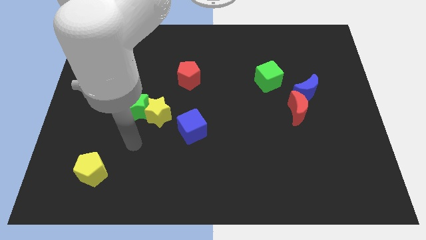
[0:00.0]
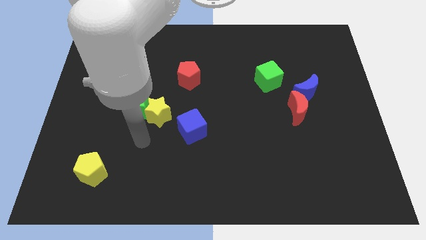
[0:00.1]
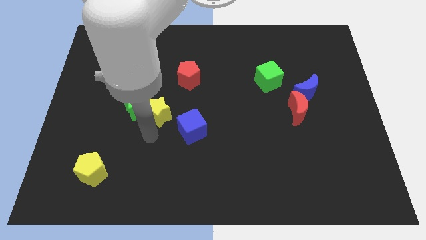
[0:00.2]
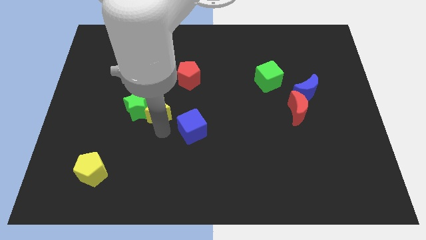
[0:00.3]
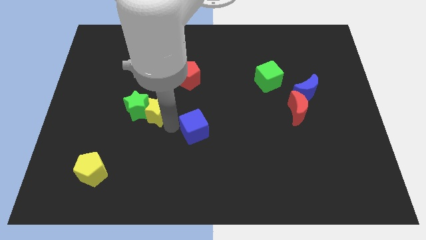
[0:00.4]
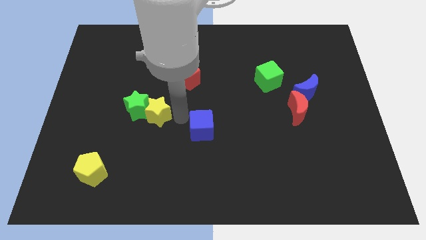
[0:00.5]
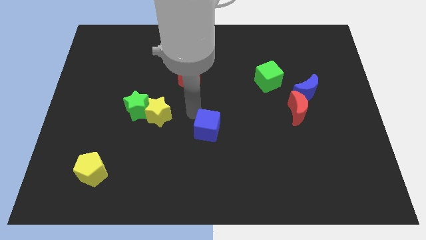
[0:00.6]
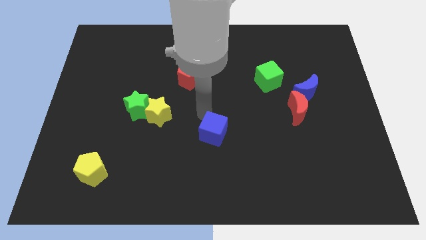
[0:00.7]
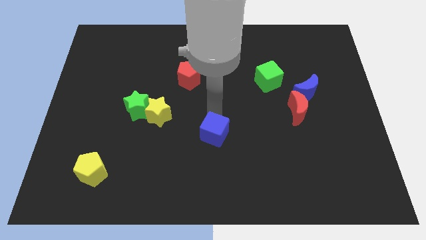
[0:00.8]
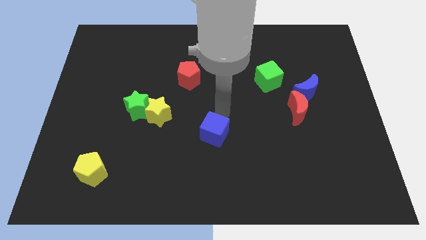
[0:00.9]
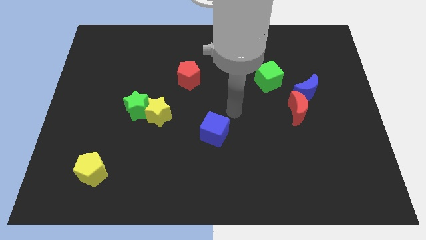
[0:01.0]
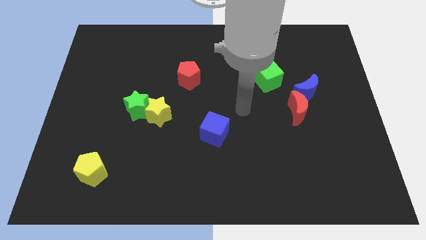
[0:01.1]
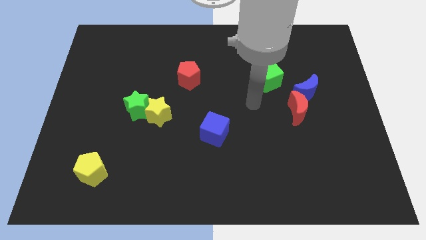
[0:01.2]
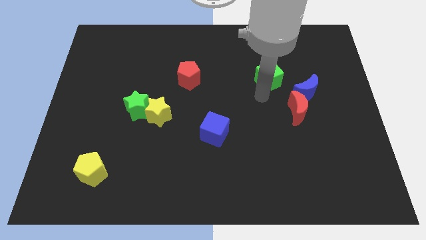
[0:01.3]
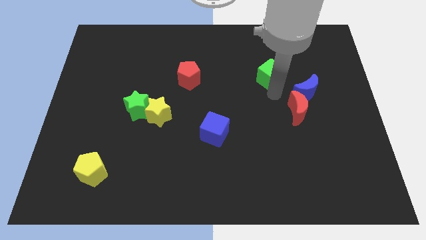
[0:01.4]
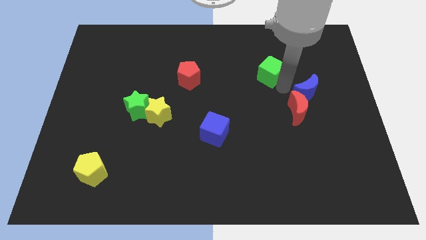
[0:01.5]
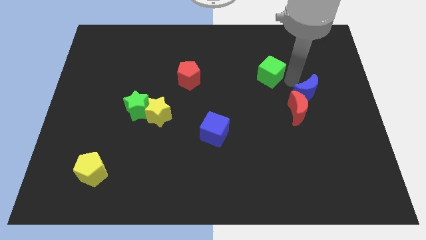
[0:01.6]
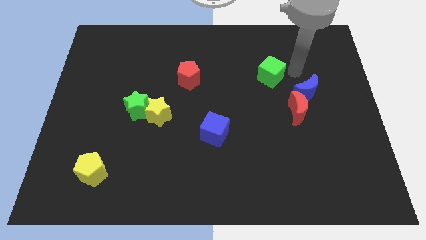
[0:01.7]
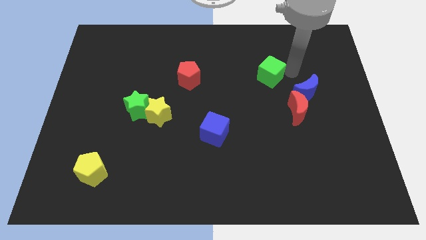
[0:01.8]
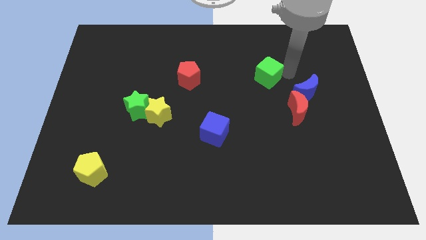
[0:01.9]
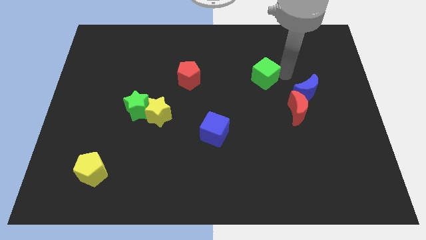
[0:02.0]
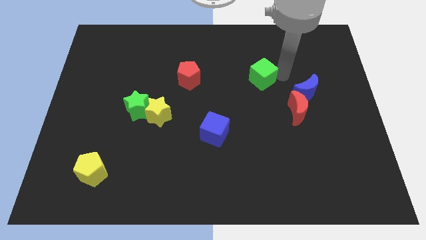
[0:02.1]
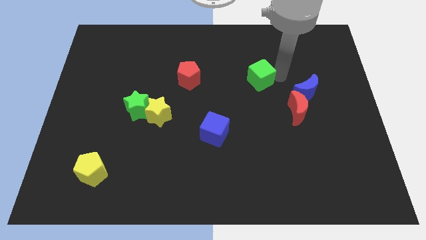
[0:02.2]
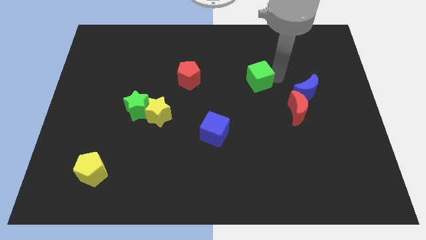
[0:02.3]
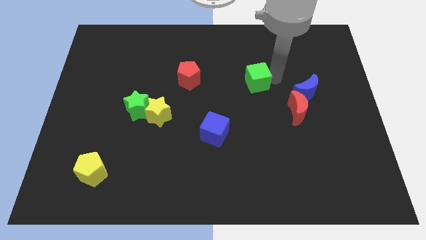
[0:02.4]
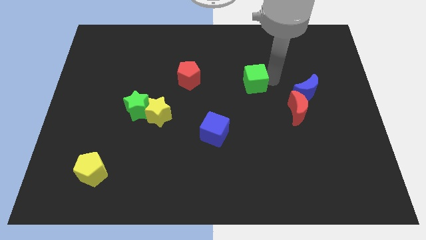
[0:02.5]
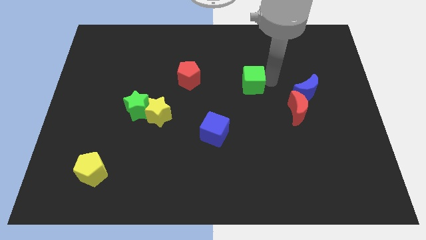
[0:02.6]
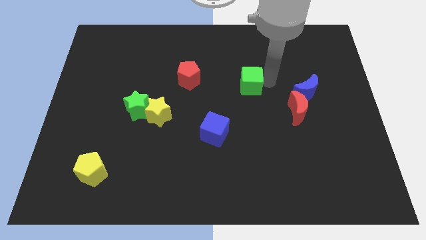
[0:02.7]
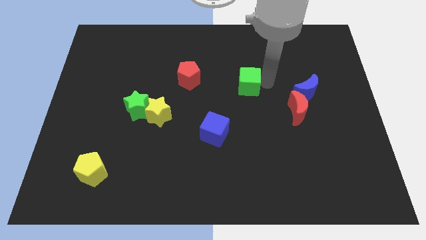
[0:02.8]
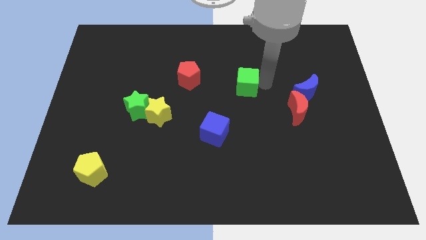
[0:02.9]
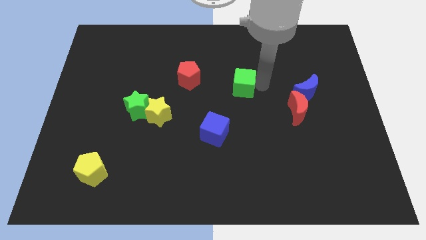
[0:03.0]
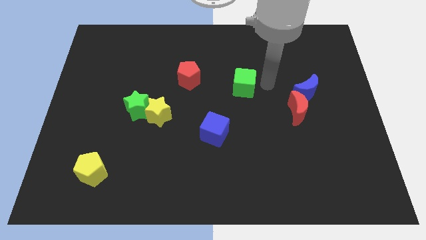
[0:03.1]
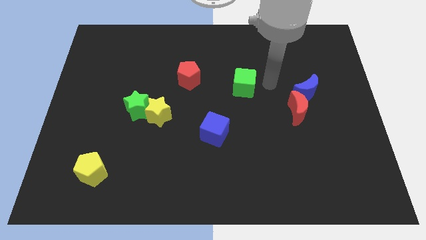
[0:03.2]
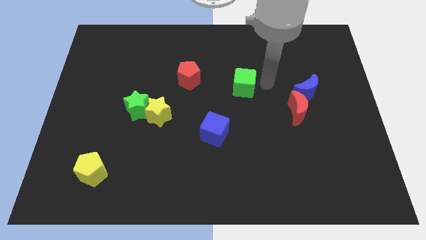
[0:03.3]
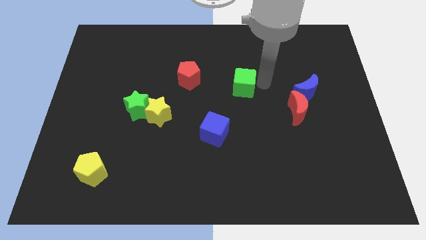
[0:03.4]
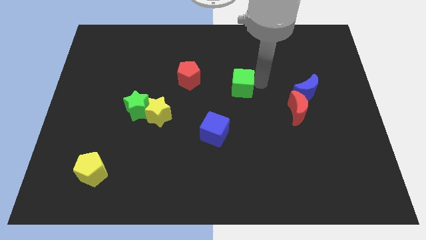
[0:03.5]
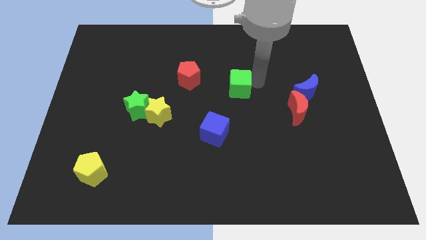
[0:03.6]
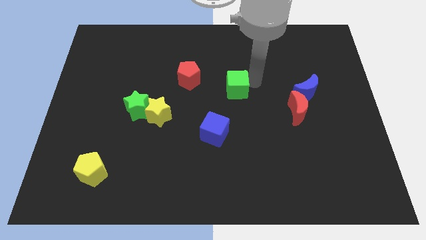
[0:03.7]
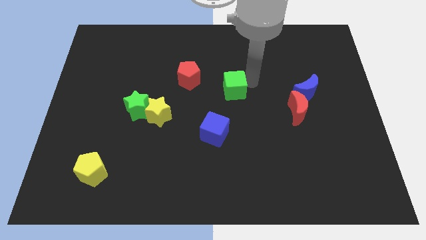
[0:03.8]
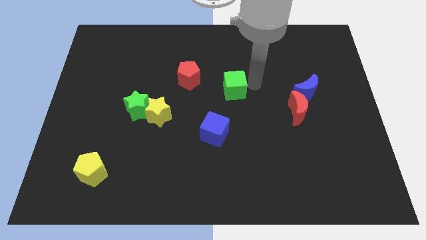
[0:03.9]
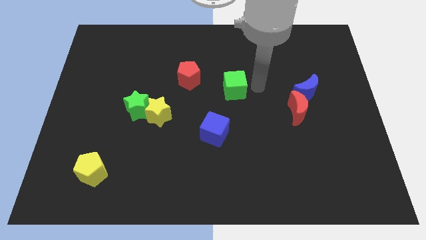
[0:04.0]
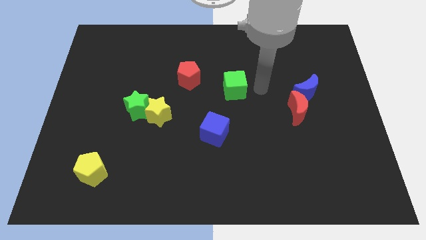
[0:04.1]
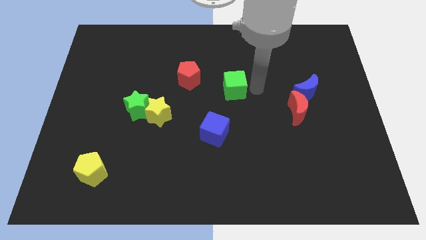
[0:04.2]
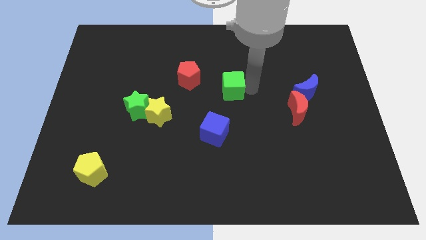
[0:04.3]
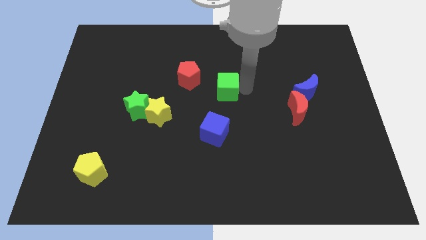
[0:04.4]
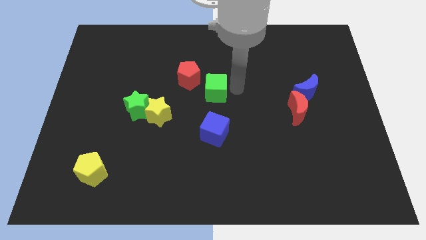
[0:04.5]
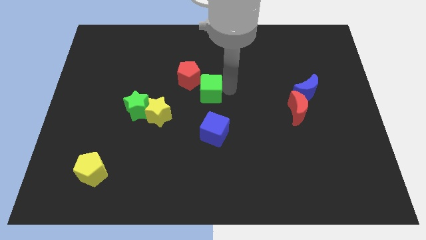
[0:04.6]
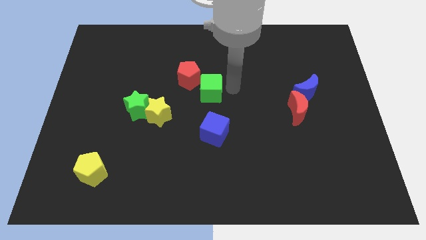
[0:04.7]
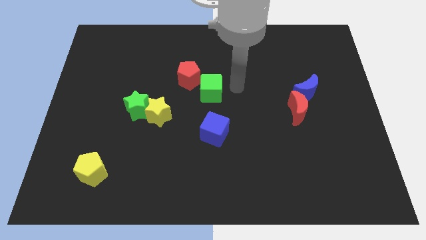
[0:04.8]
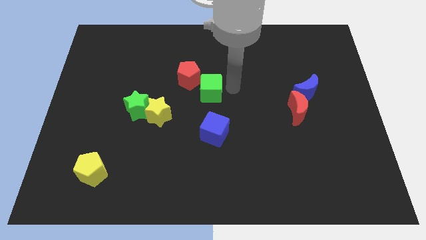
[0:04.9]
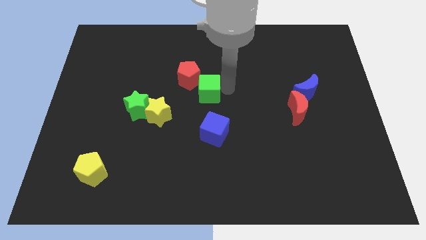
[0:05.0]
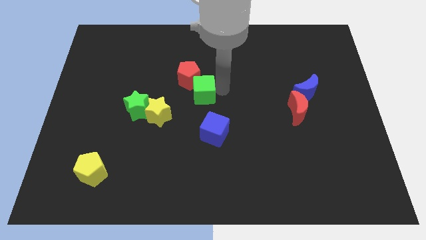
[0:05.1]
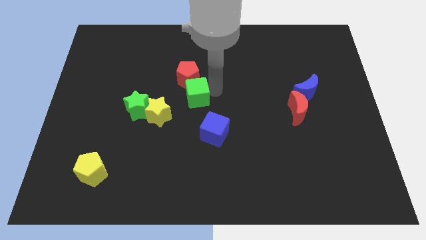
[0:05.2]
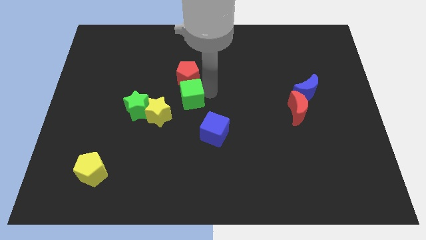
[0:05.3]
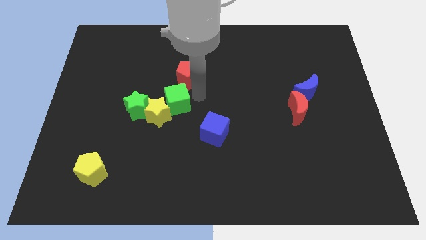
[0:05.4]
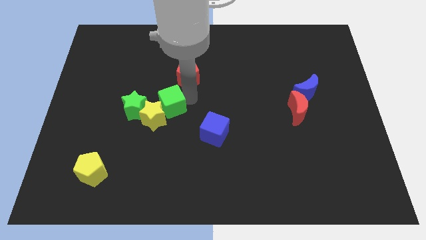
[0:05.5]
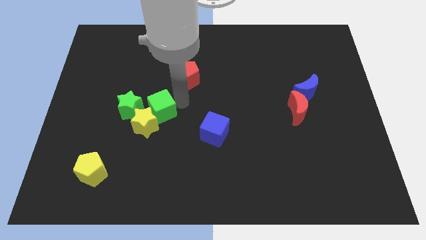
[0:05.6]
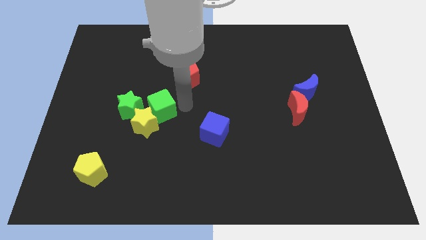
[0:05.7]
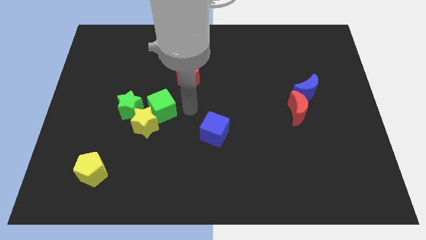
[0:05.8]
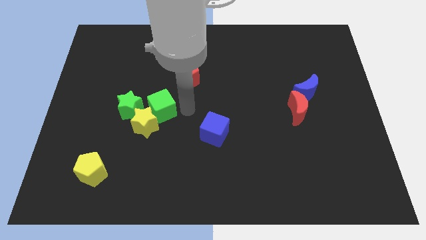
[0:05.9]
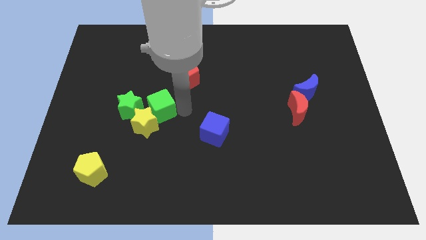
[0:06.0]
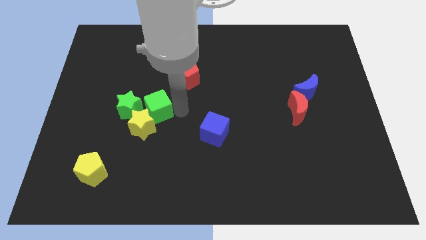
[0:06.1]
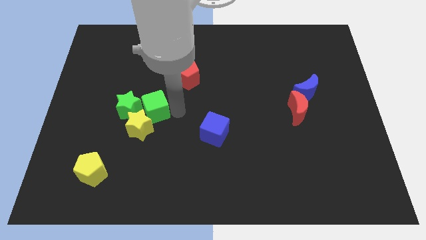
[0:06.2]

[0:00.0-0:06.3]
put the green cube next to the green star

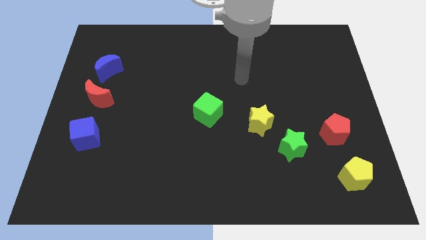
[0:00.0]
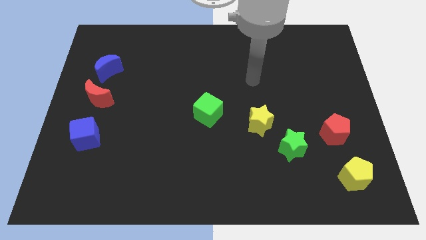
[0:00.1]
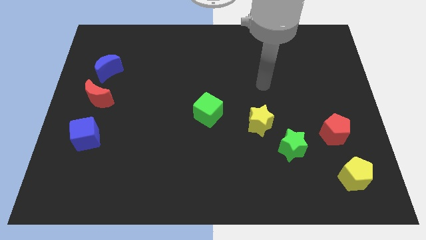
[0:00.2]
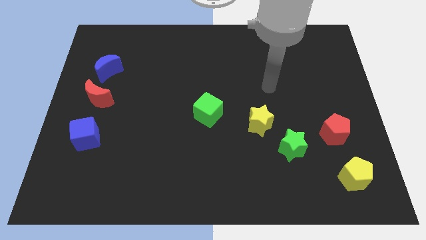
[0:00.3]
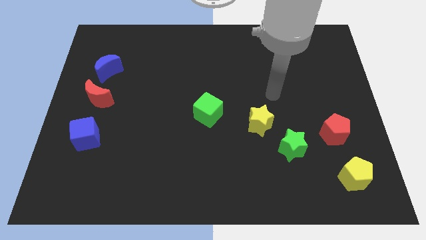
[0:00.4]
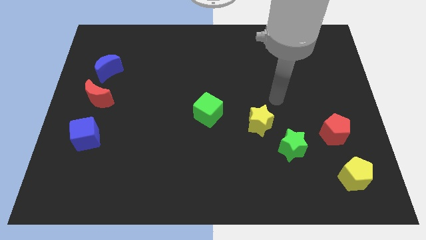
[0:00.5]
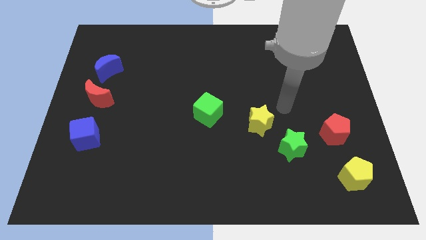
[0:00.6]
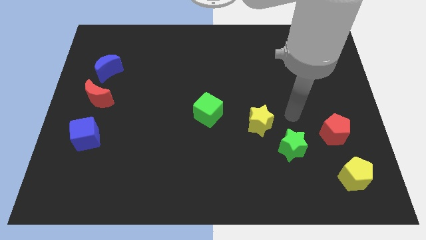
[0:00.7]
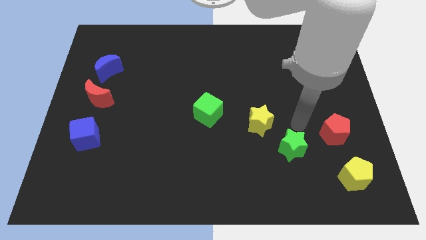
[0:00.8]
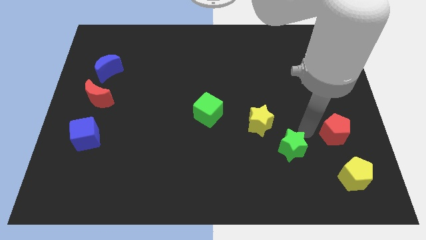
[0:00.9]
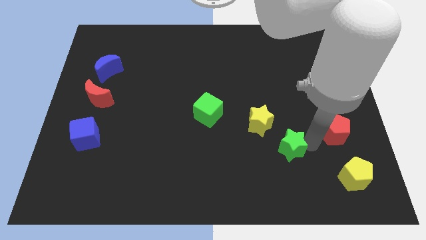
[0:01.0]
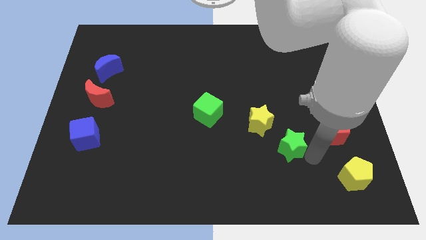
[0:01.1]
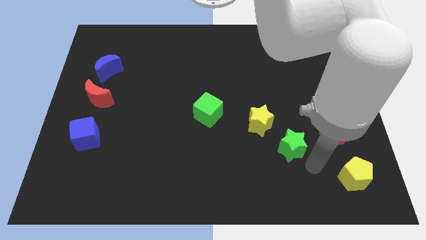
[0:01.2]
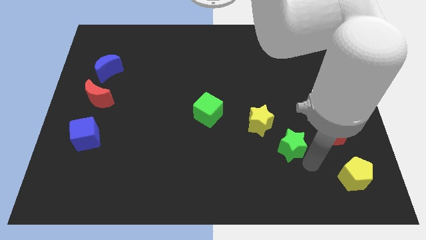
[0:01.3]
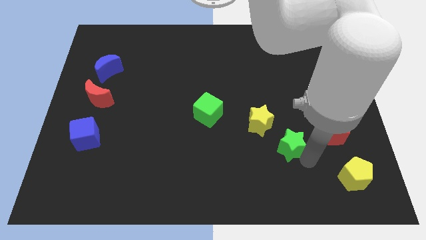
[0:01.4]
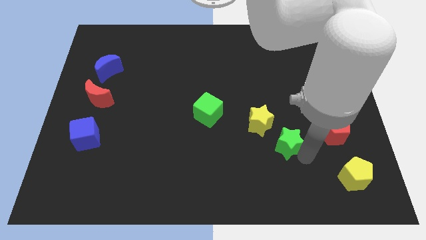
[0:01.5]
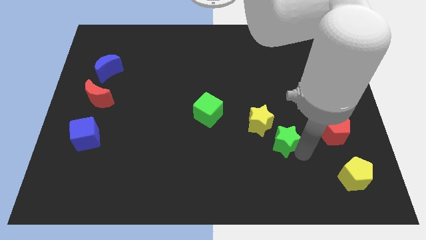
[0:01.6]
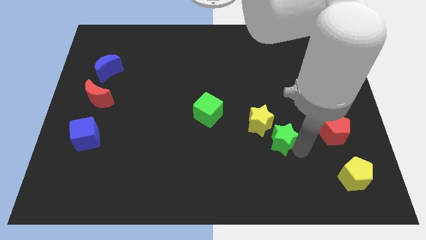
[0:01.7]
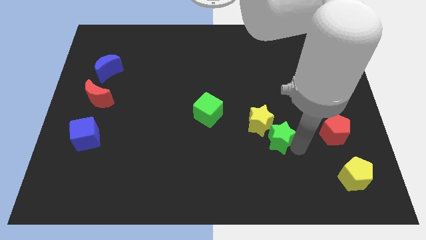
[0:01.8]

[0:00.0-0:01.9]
put the green star towards the yellow star
